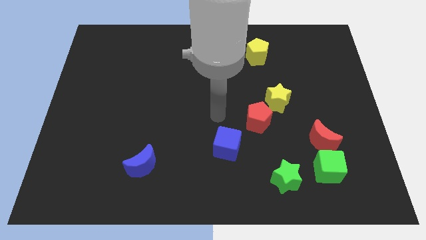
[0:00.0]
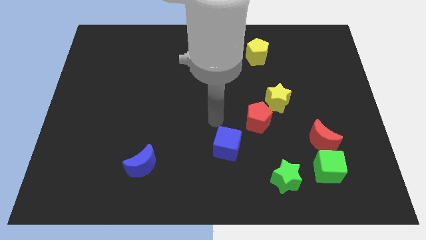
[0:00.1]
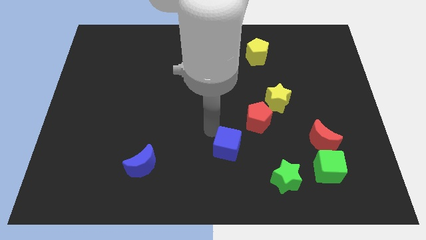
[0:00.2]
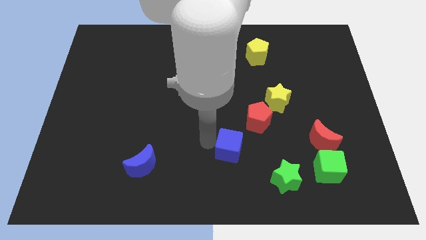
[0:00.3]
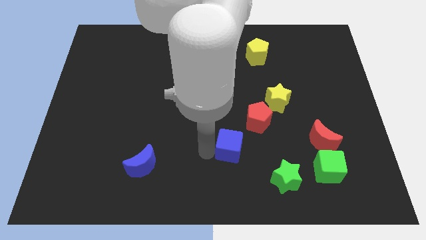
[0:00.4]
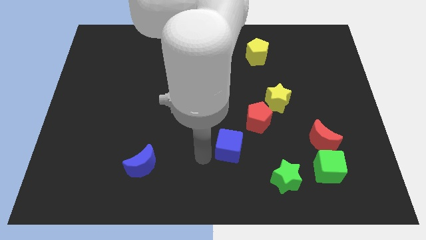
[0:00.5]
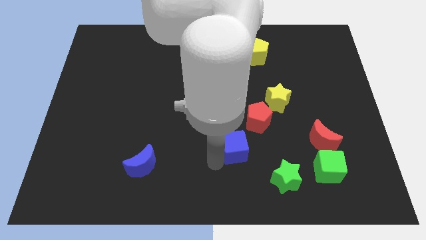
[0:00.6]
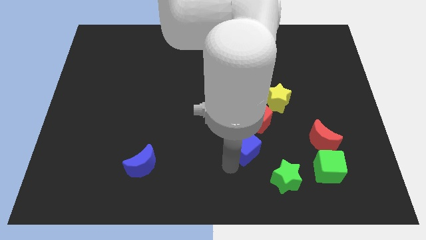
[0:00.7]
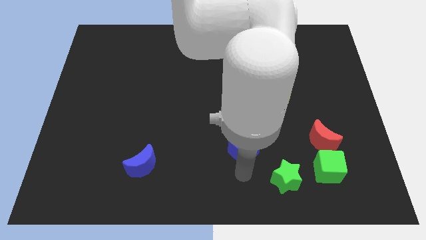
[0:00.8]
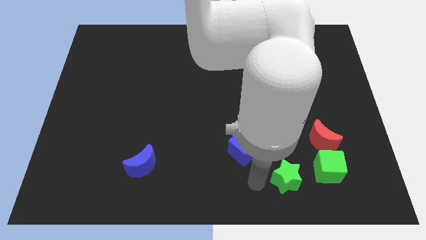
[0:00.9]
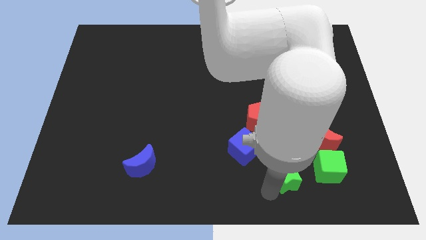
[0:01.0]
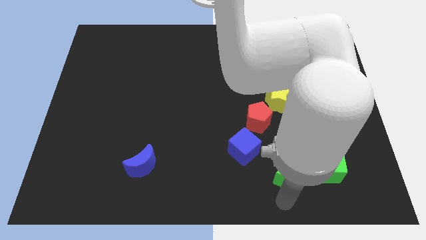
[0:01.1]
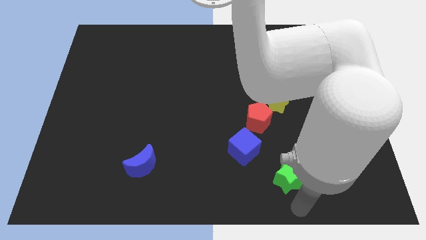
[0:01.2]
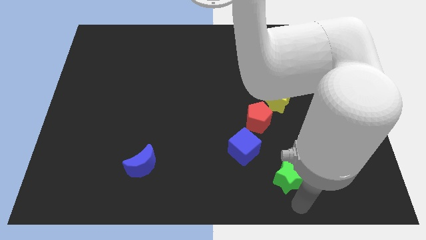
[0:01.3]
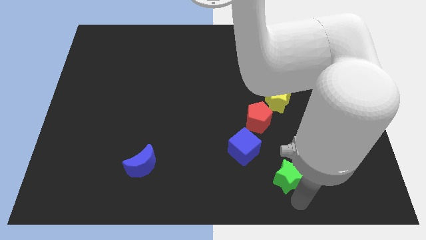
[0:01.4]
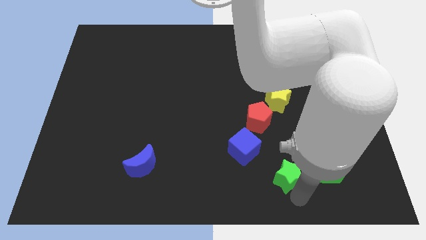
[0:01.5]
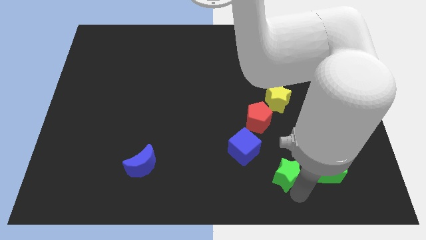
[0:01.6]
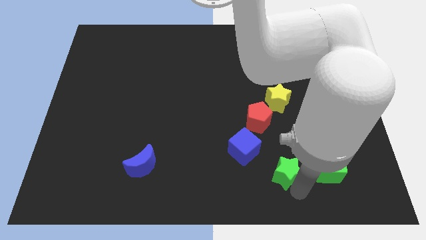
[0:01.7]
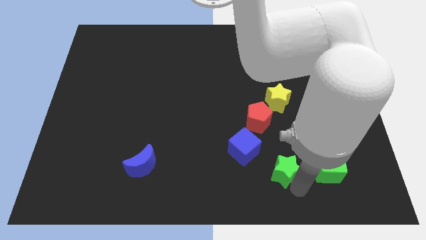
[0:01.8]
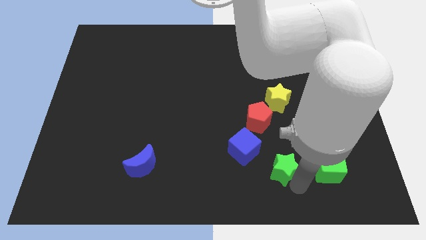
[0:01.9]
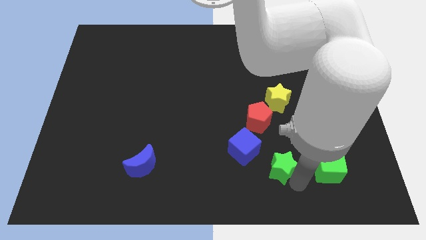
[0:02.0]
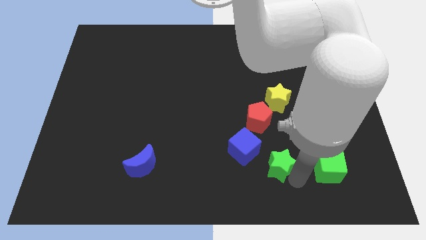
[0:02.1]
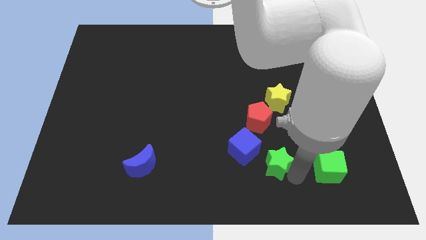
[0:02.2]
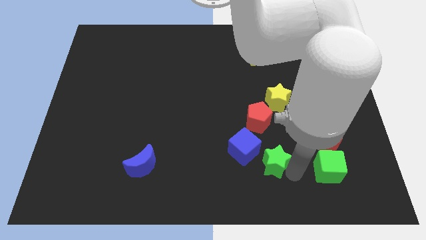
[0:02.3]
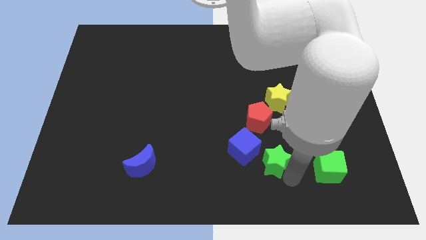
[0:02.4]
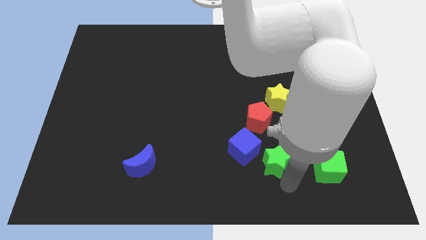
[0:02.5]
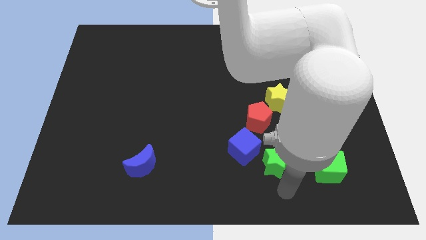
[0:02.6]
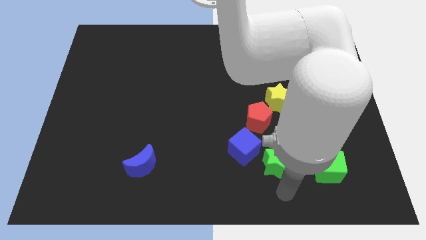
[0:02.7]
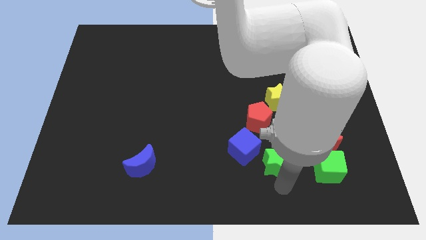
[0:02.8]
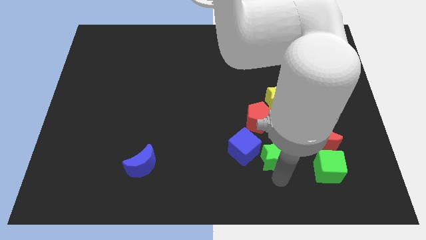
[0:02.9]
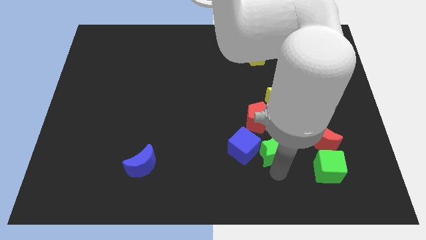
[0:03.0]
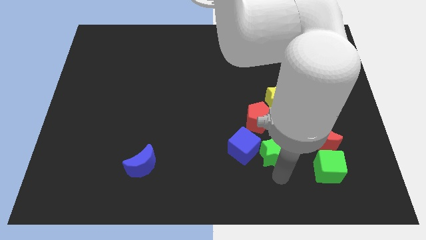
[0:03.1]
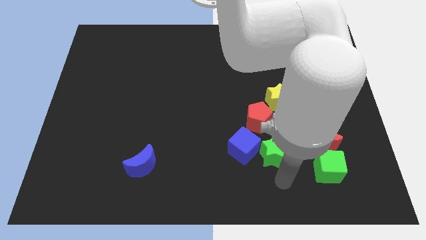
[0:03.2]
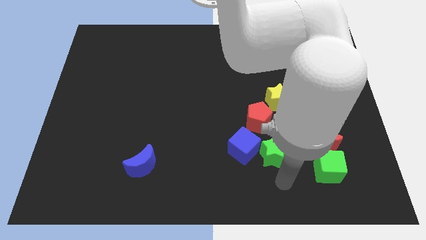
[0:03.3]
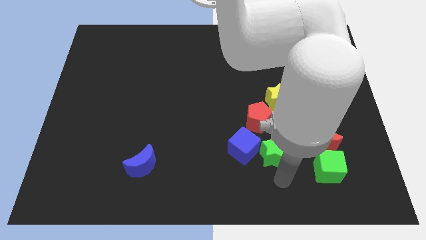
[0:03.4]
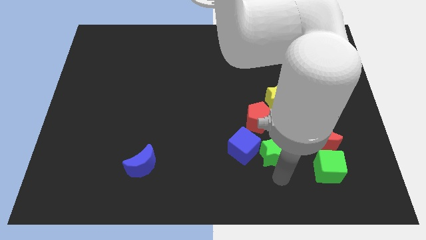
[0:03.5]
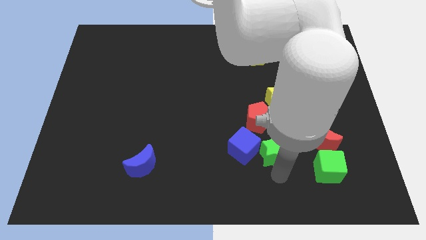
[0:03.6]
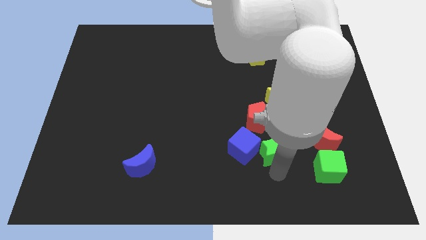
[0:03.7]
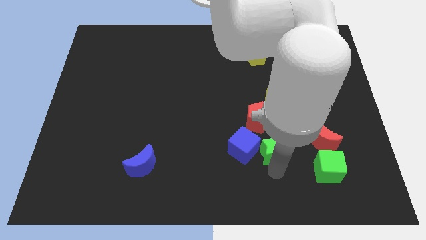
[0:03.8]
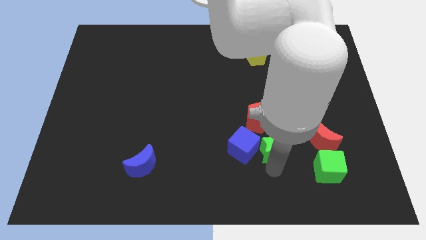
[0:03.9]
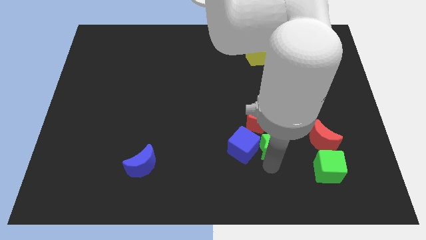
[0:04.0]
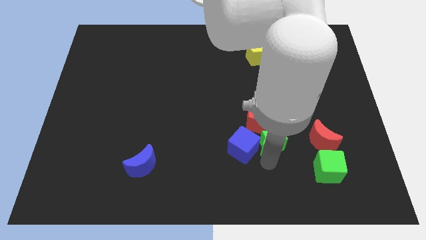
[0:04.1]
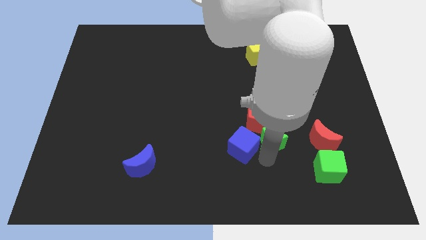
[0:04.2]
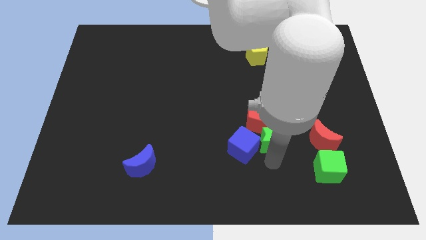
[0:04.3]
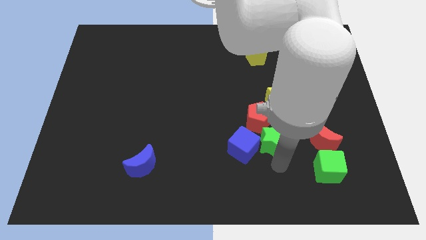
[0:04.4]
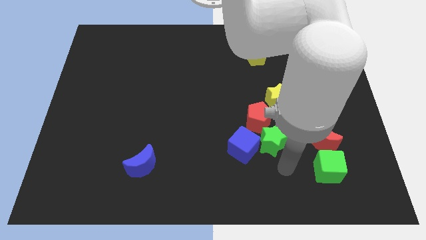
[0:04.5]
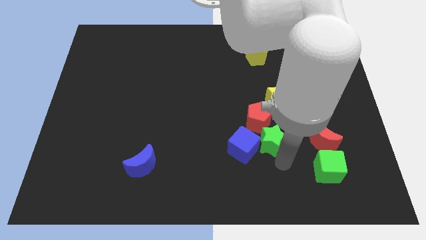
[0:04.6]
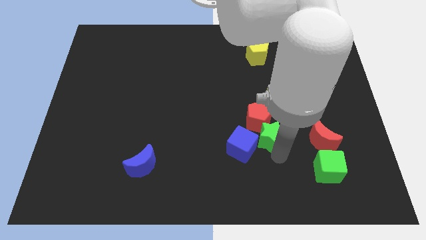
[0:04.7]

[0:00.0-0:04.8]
slide the green star next to the red pentagon

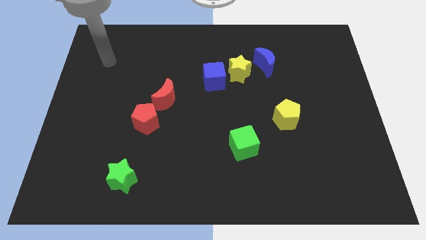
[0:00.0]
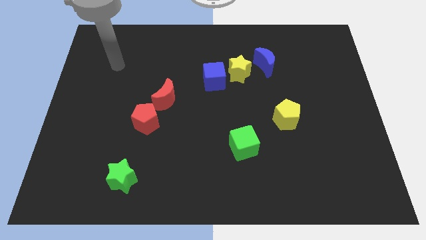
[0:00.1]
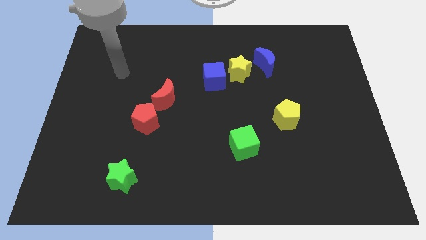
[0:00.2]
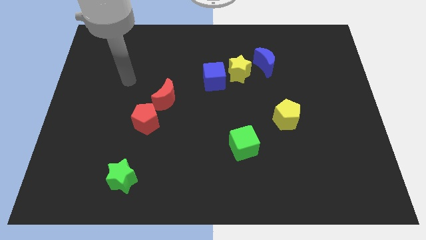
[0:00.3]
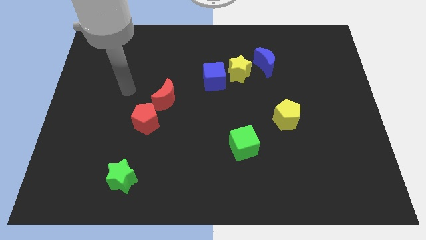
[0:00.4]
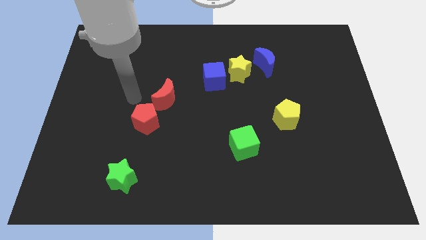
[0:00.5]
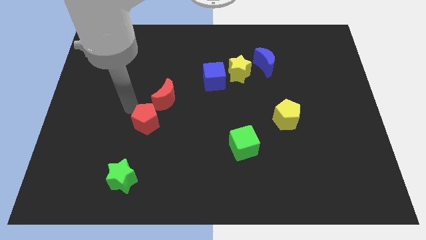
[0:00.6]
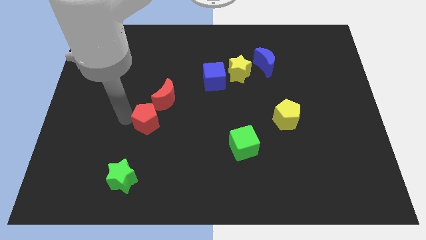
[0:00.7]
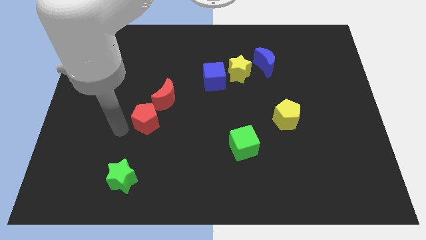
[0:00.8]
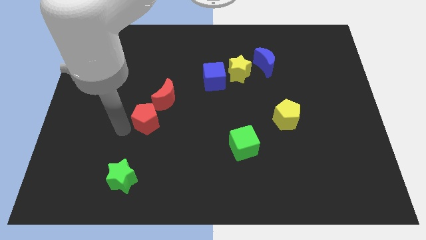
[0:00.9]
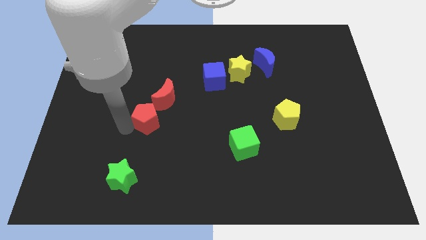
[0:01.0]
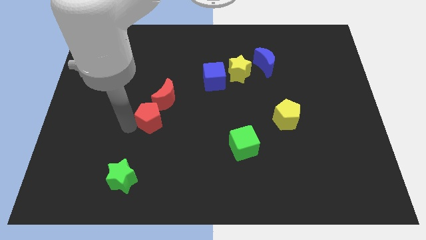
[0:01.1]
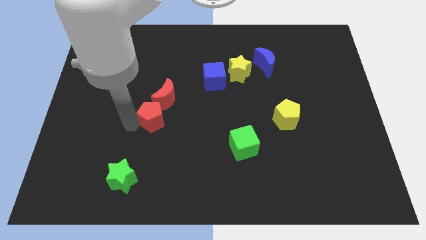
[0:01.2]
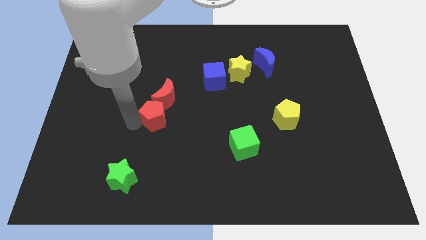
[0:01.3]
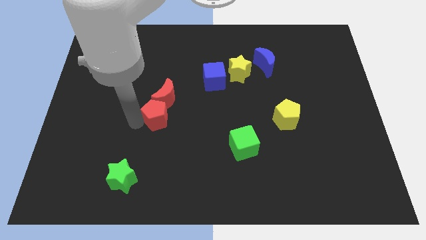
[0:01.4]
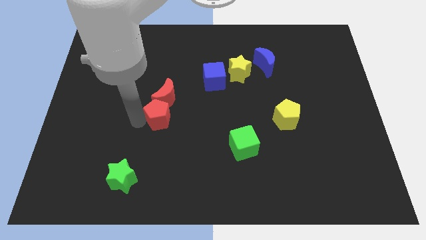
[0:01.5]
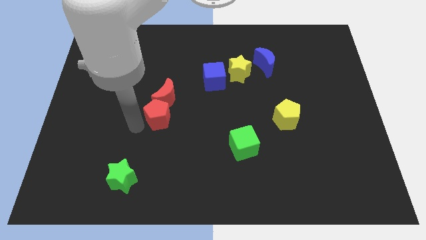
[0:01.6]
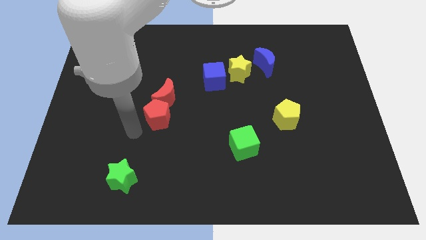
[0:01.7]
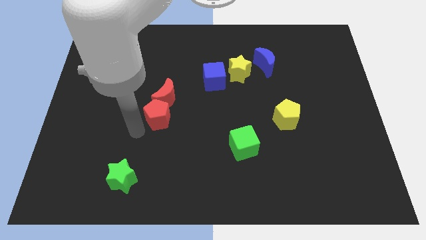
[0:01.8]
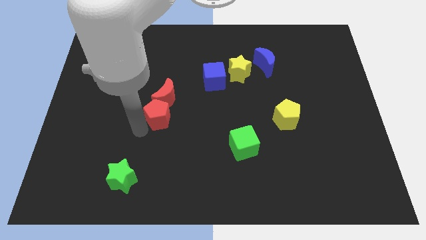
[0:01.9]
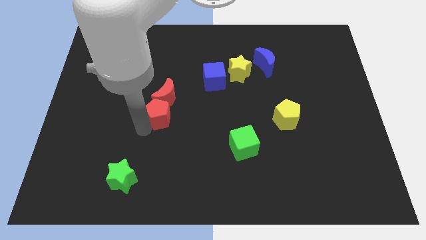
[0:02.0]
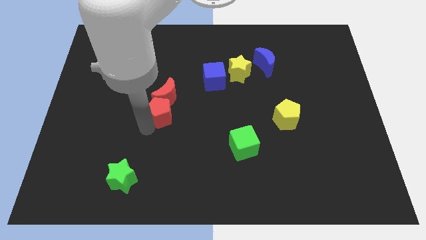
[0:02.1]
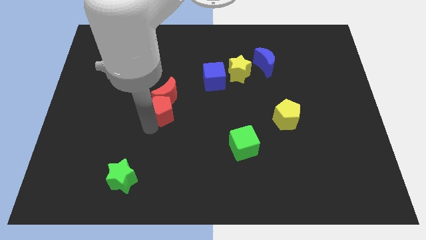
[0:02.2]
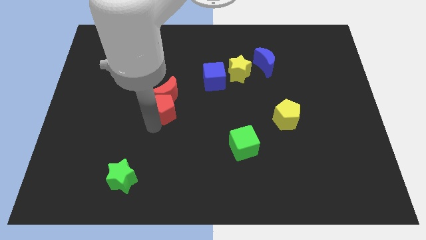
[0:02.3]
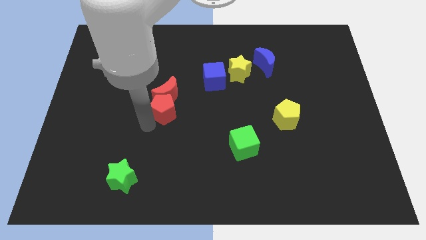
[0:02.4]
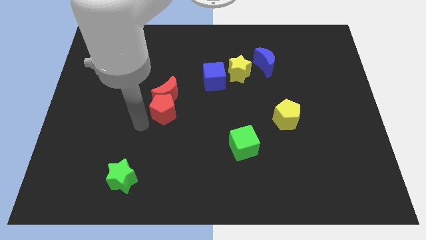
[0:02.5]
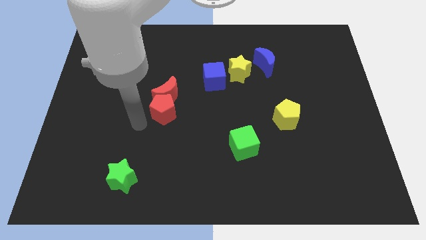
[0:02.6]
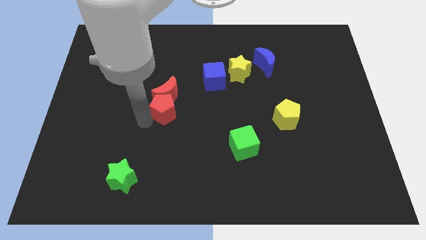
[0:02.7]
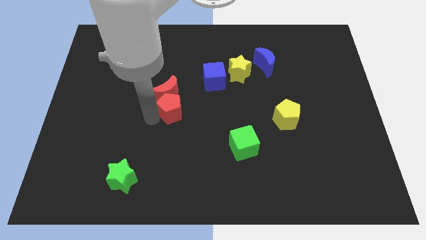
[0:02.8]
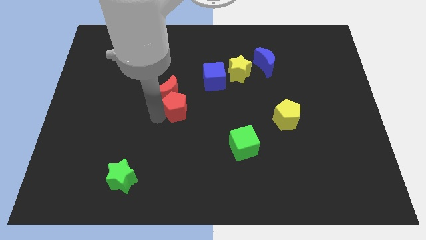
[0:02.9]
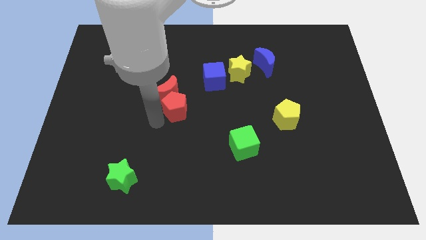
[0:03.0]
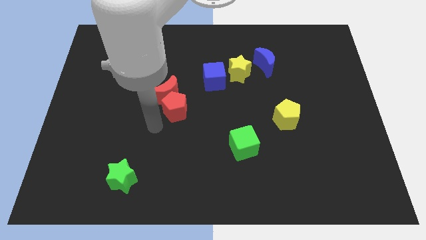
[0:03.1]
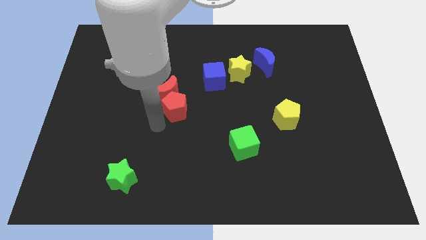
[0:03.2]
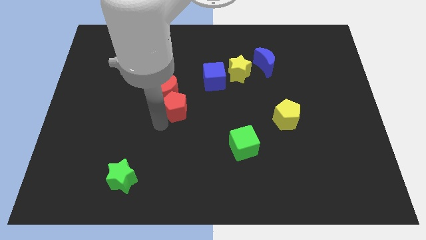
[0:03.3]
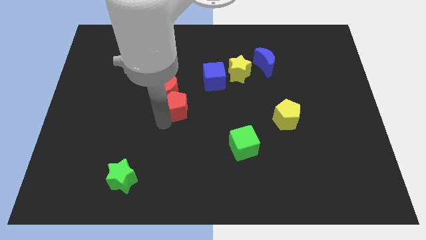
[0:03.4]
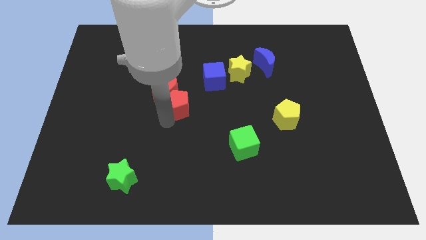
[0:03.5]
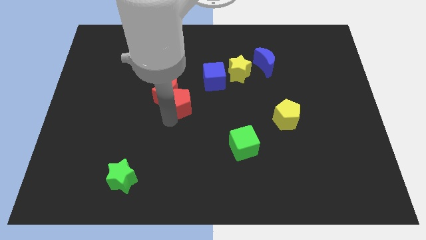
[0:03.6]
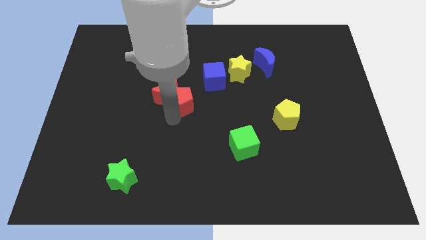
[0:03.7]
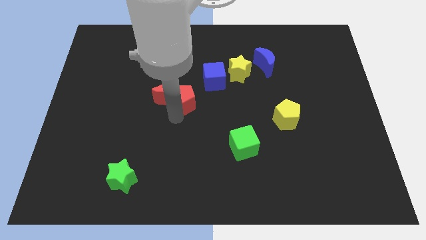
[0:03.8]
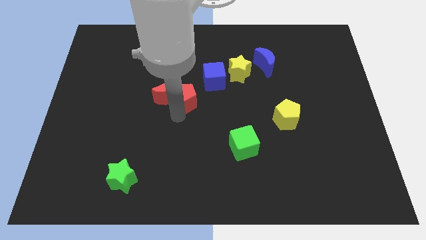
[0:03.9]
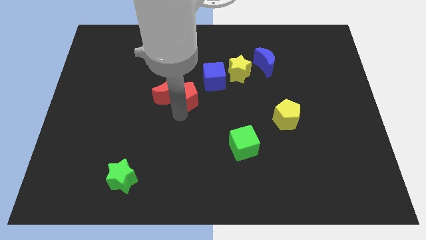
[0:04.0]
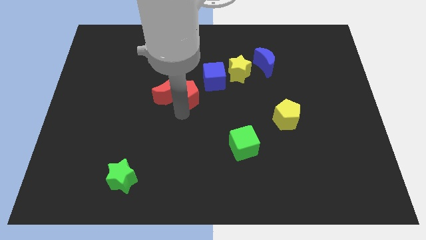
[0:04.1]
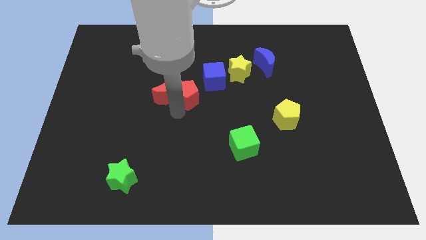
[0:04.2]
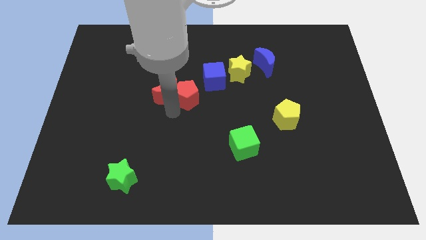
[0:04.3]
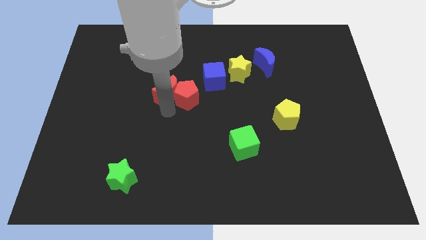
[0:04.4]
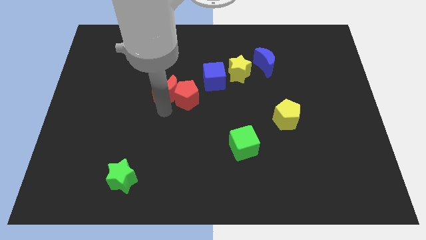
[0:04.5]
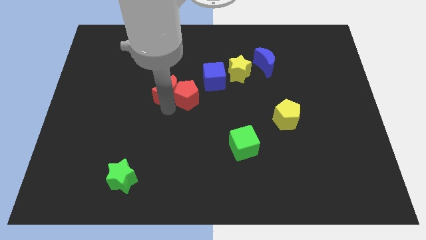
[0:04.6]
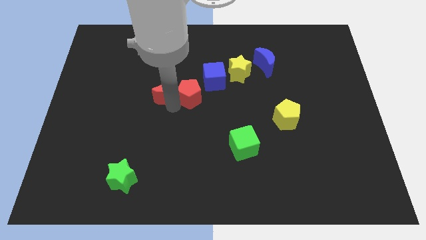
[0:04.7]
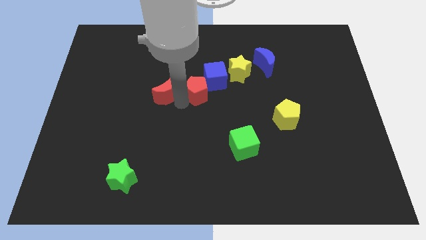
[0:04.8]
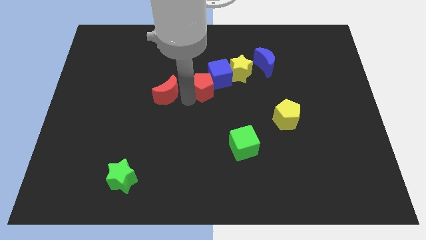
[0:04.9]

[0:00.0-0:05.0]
push the red pentagon next to the blue cube
